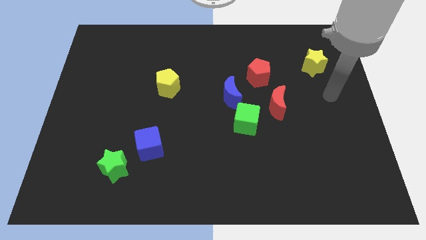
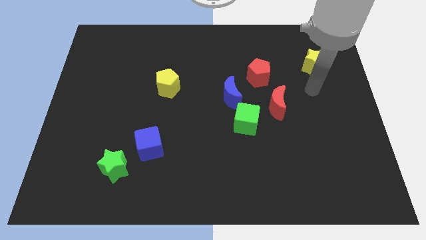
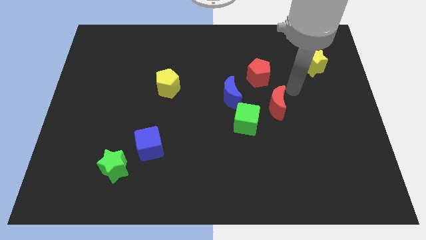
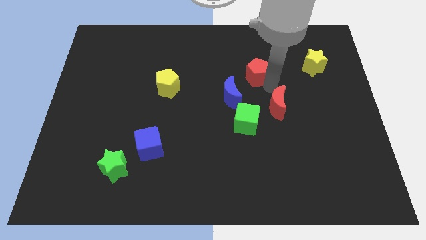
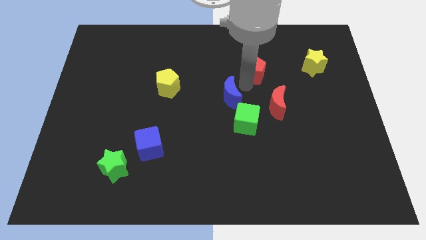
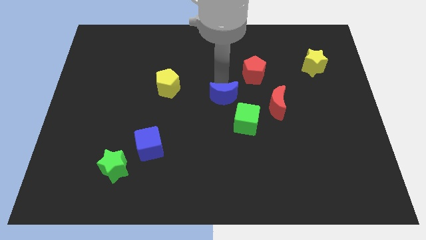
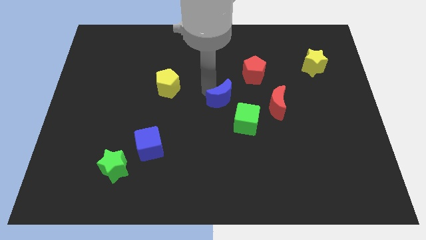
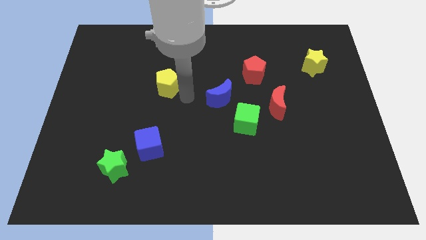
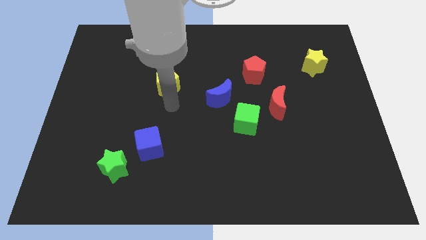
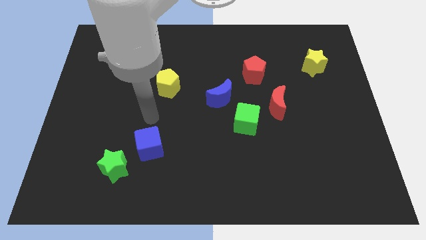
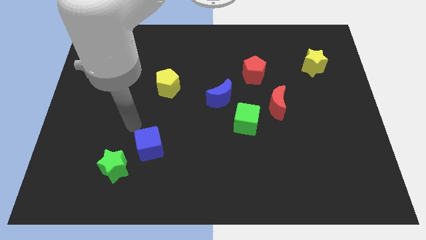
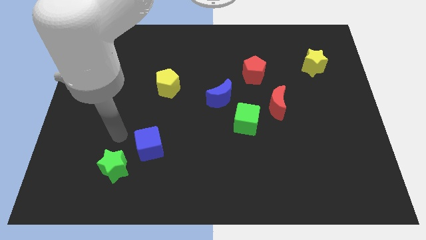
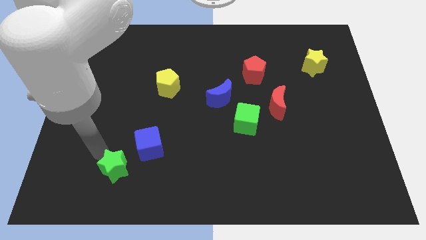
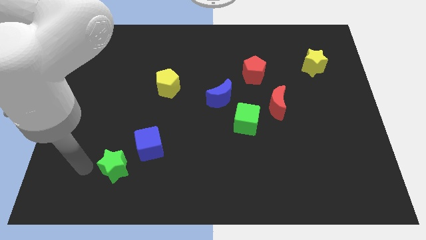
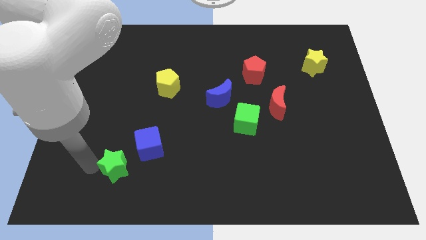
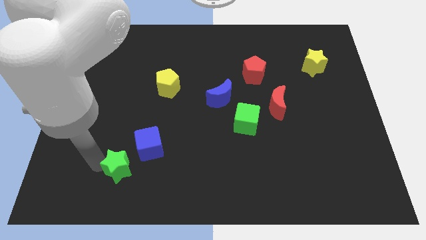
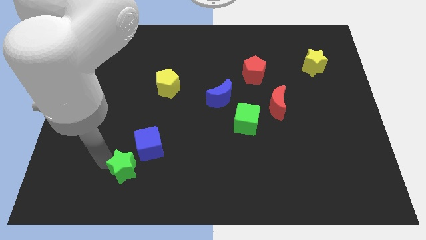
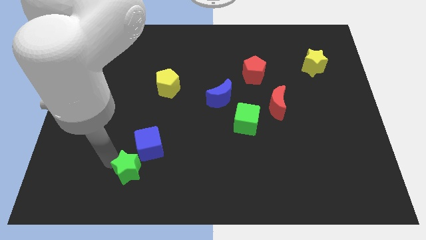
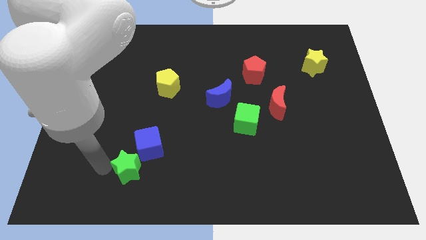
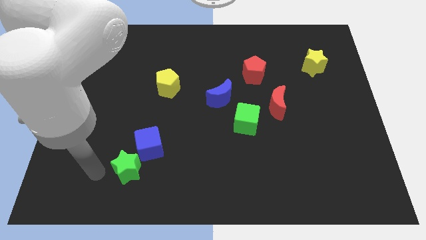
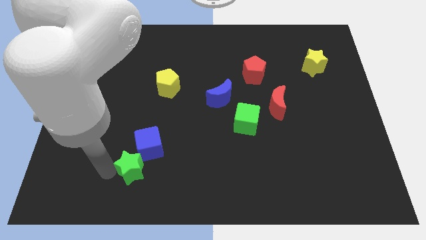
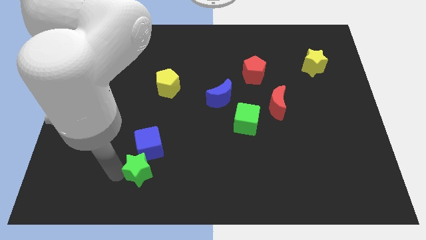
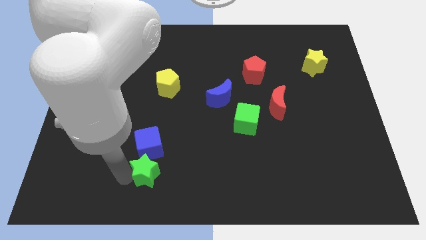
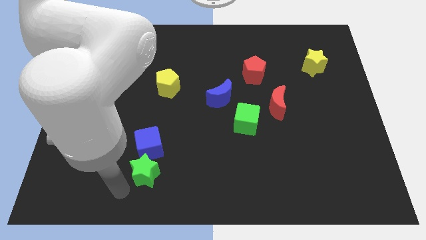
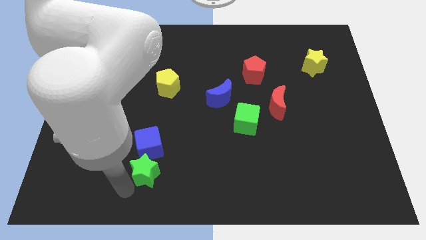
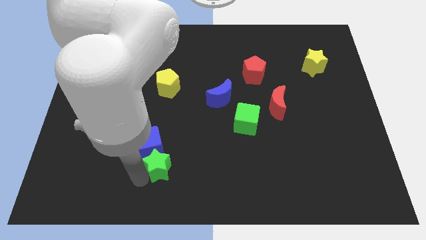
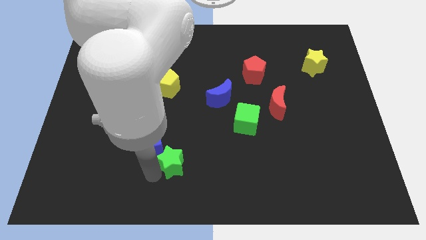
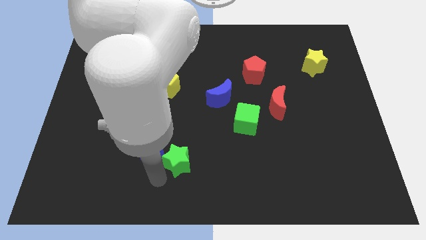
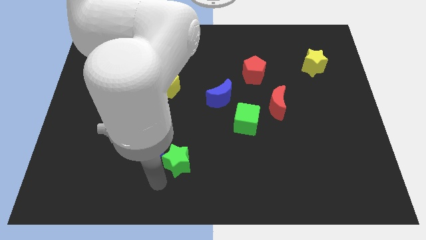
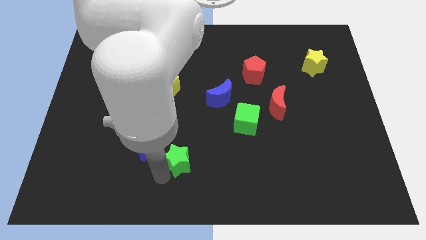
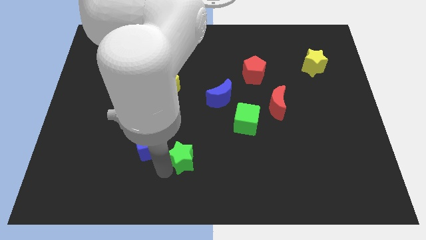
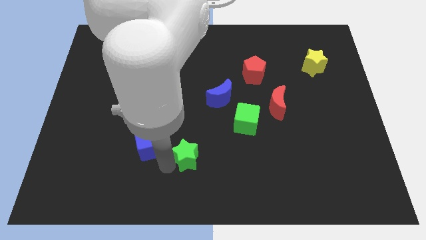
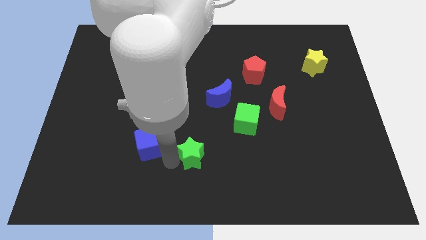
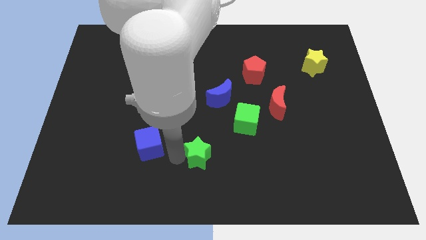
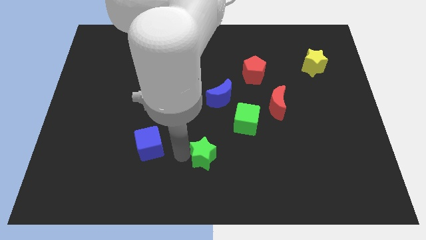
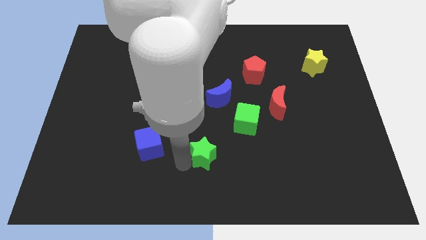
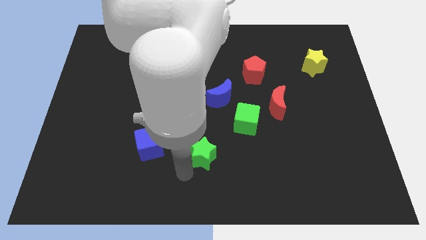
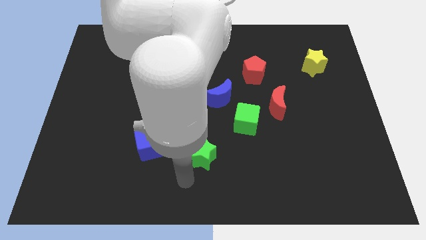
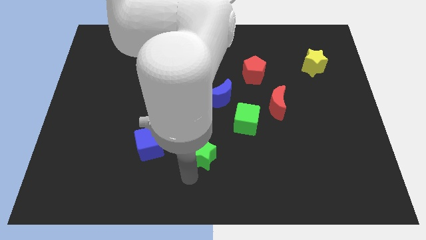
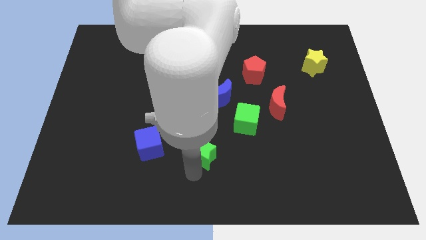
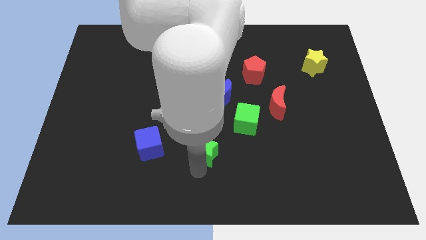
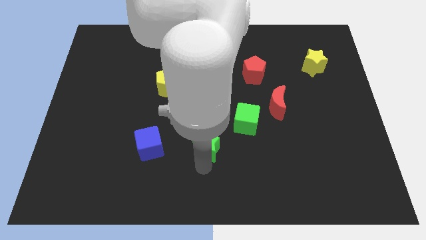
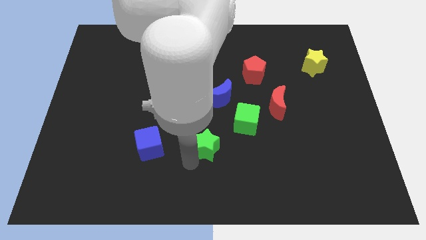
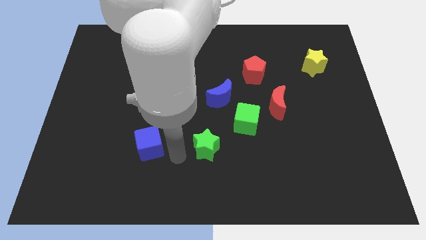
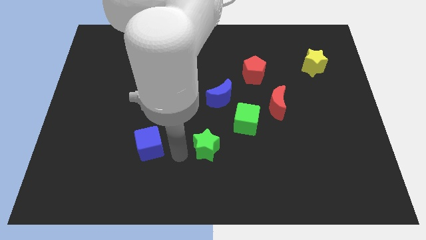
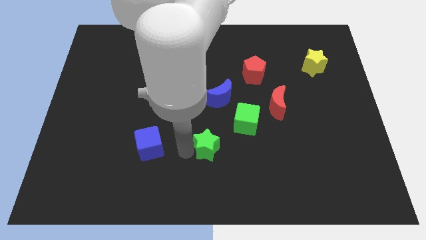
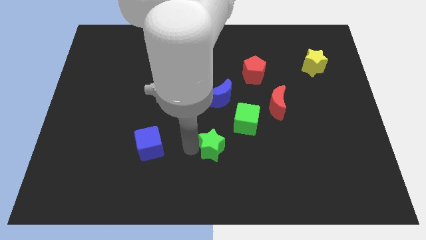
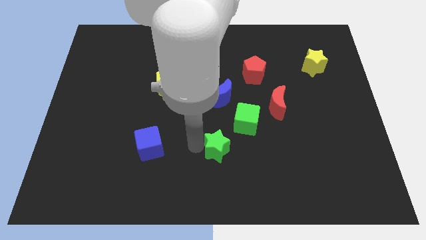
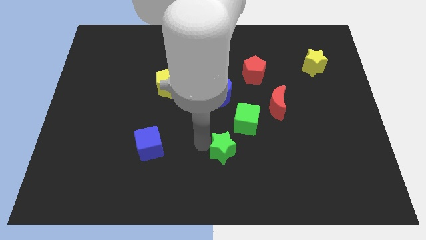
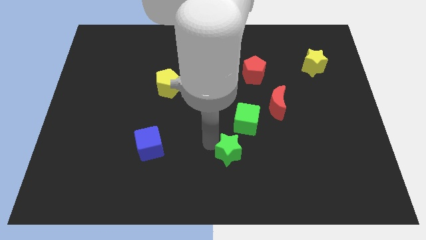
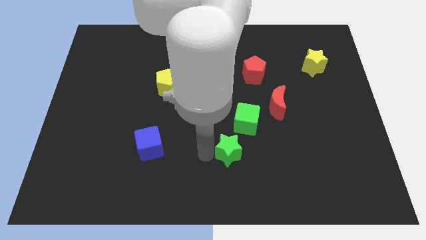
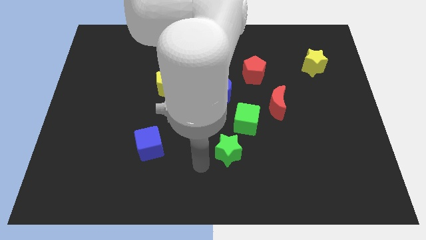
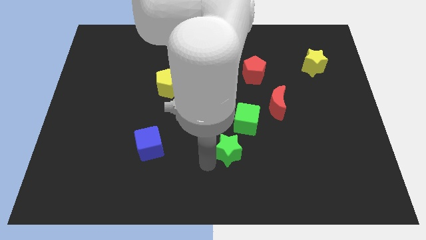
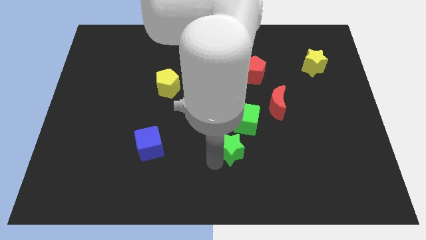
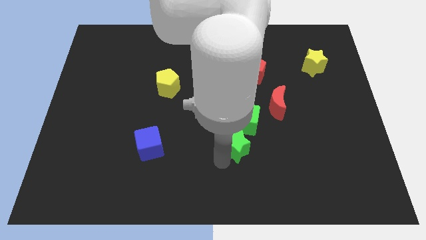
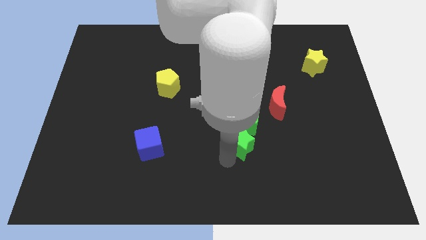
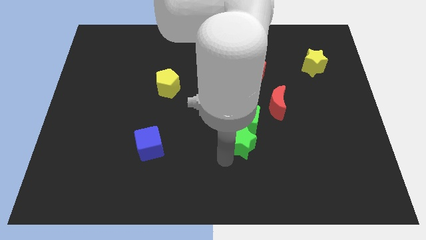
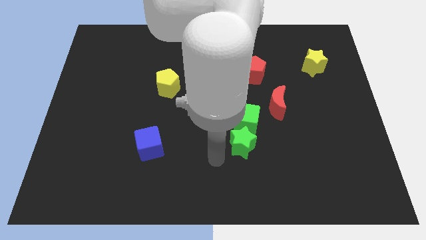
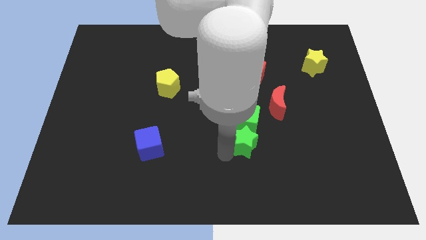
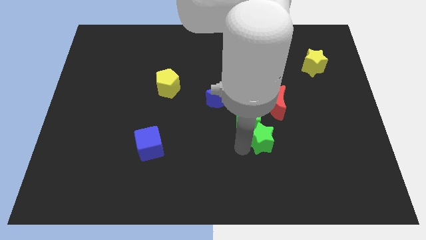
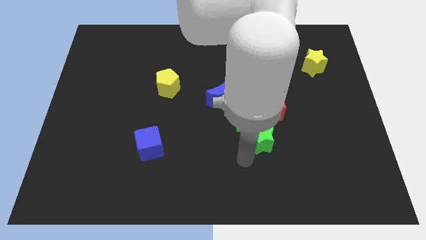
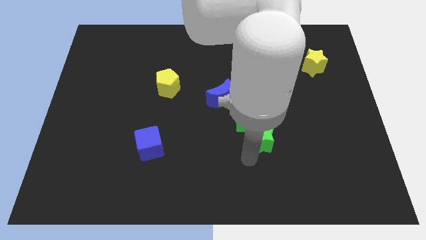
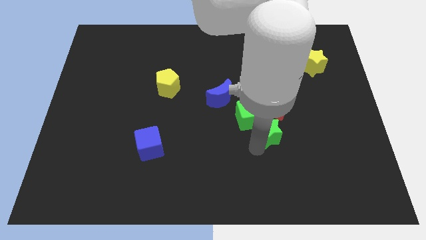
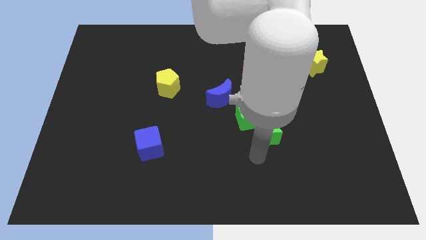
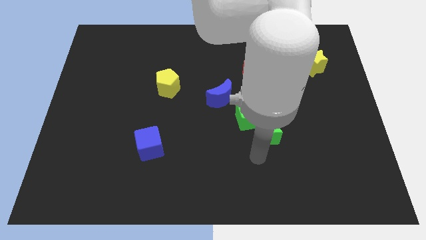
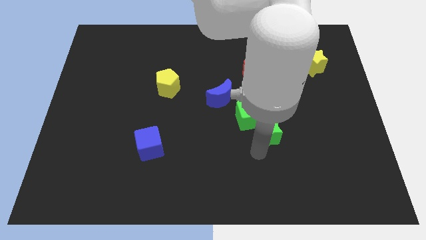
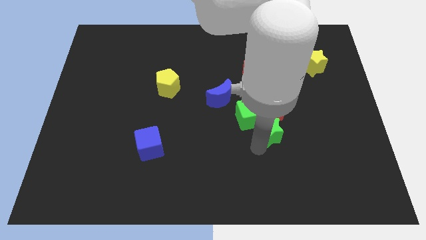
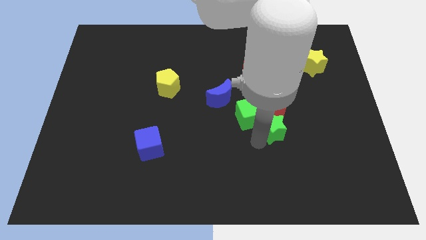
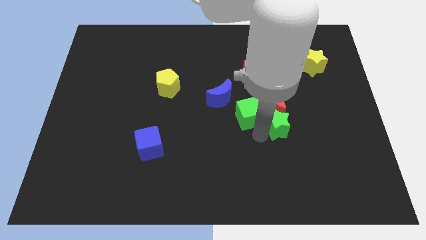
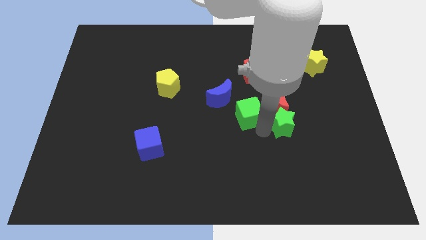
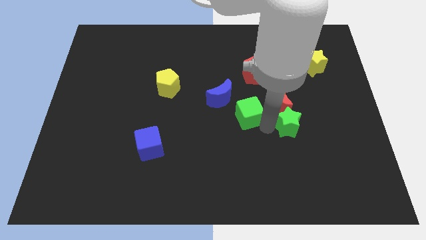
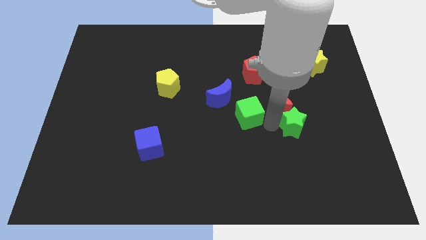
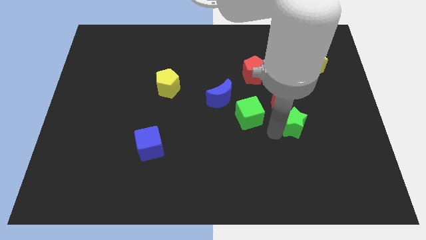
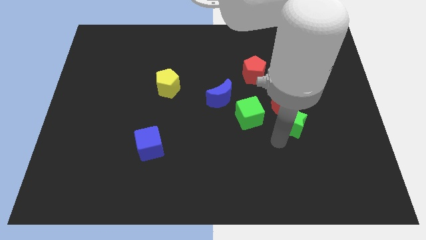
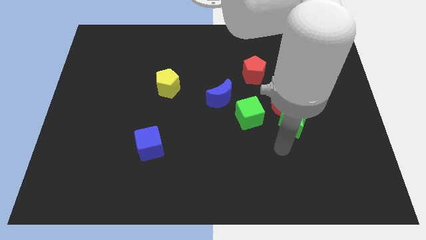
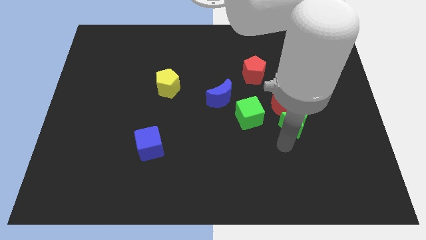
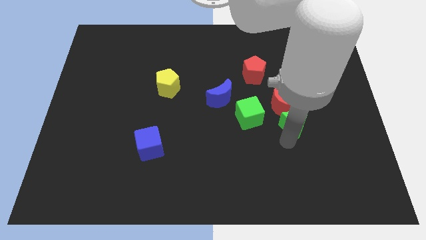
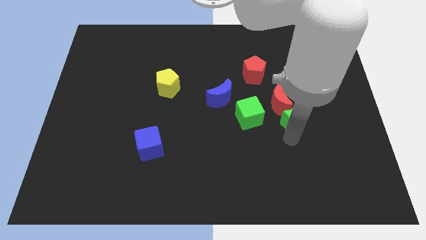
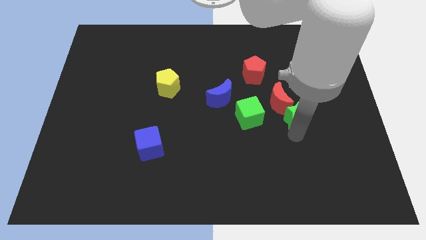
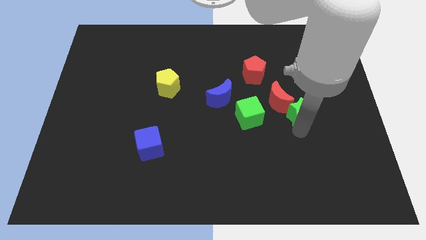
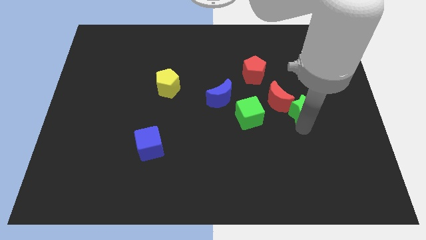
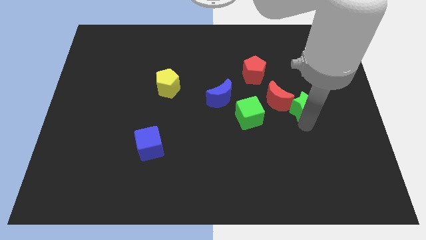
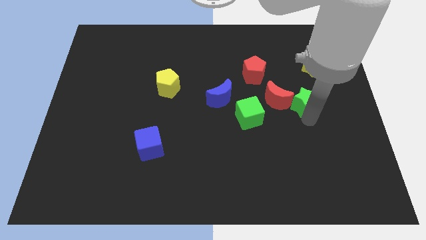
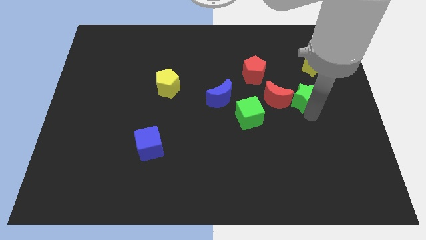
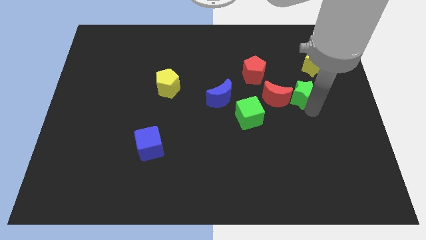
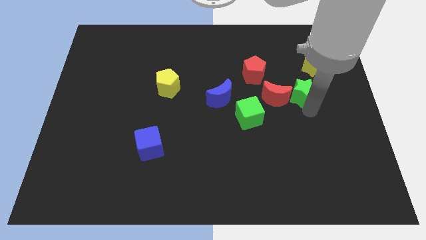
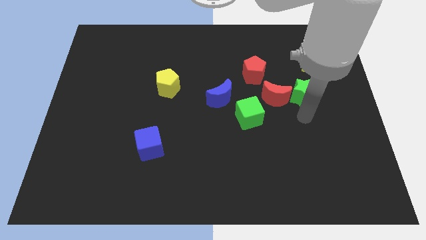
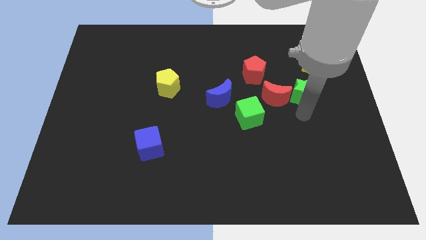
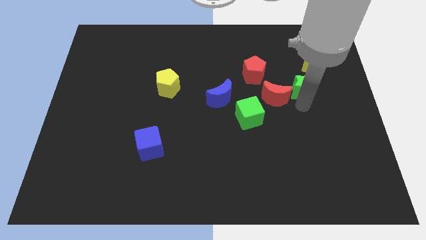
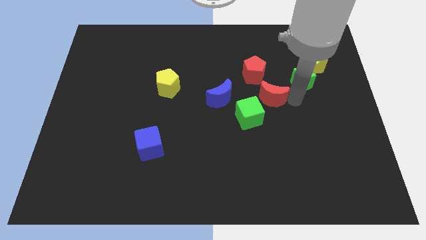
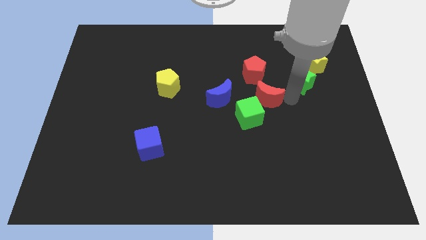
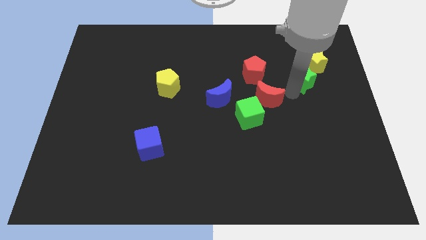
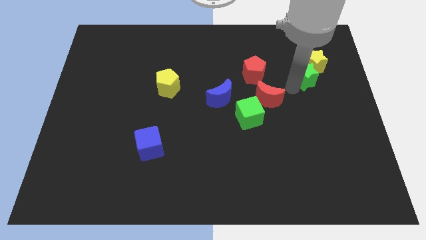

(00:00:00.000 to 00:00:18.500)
move the green star towards the yellow star
